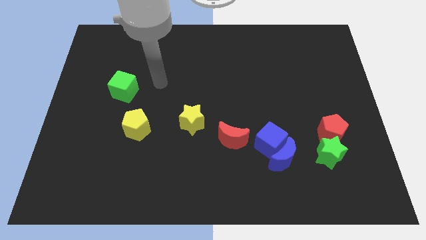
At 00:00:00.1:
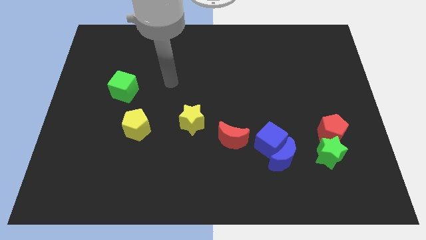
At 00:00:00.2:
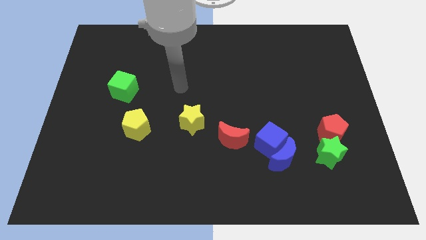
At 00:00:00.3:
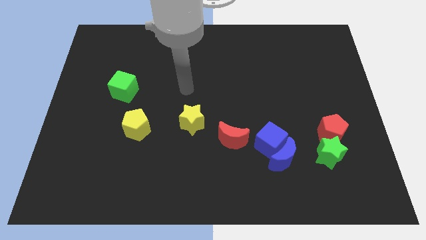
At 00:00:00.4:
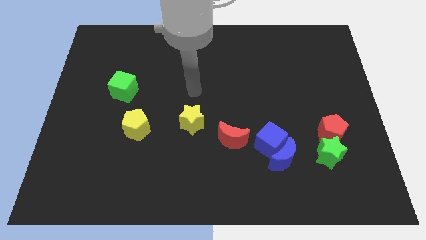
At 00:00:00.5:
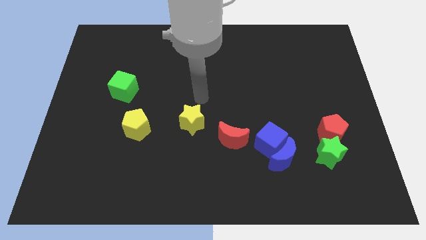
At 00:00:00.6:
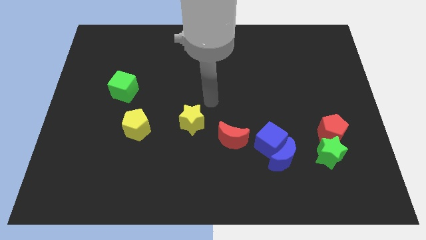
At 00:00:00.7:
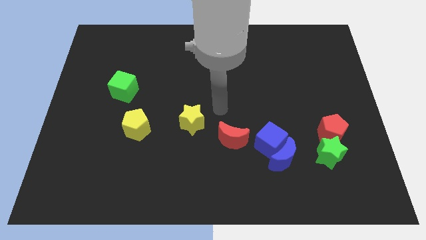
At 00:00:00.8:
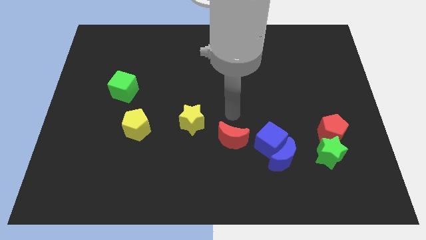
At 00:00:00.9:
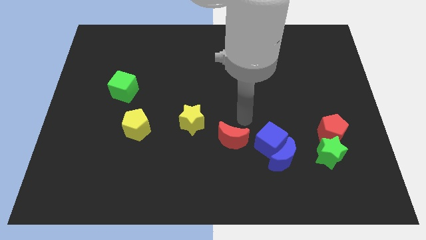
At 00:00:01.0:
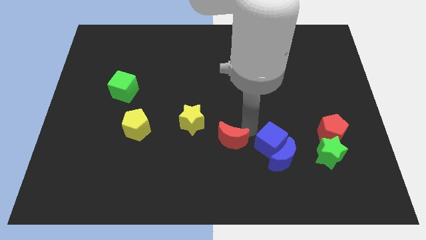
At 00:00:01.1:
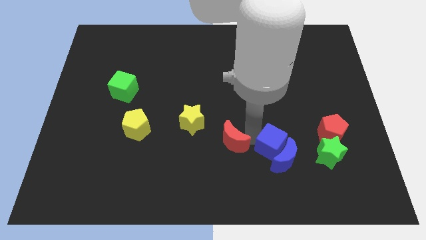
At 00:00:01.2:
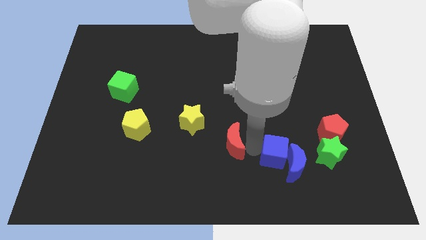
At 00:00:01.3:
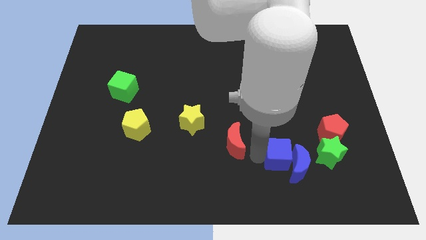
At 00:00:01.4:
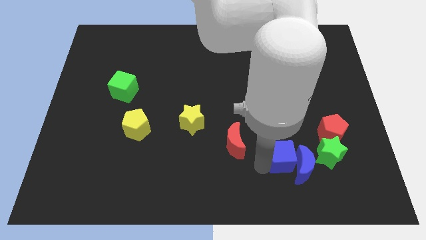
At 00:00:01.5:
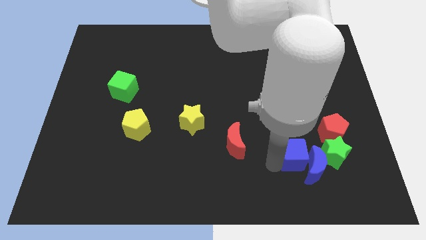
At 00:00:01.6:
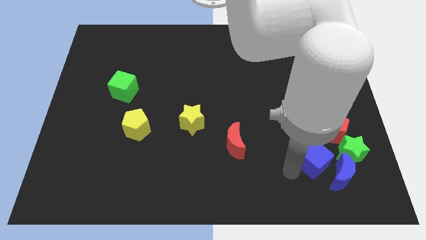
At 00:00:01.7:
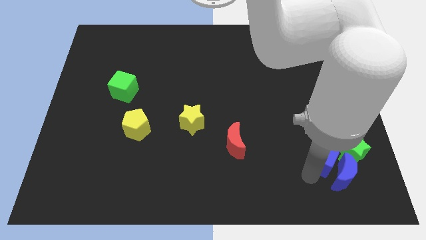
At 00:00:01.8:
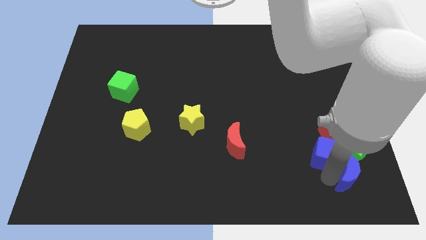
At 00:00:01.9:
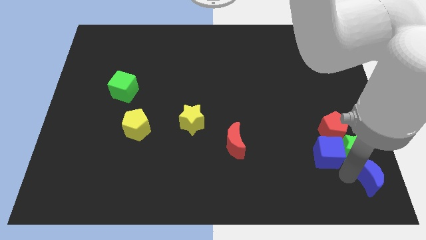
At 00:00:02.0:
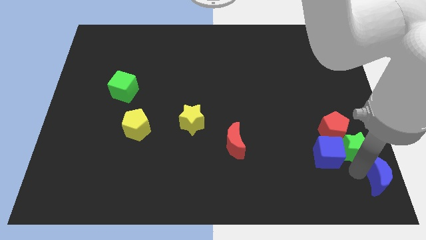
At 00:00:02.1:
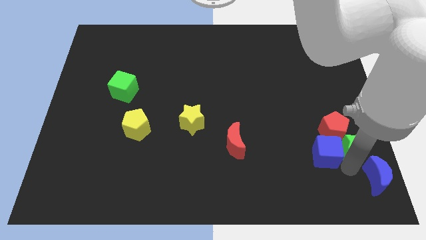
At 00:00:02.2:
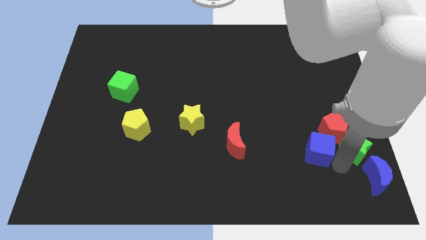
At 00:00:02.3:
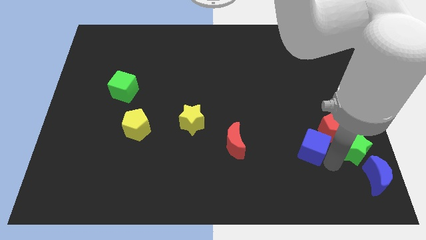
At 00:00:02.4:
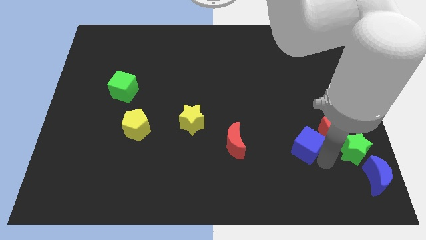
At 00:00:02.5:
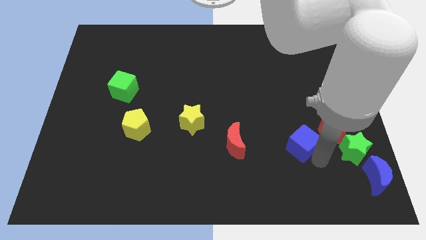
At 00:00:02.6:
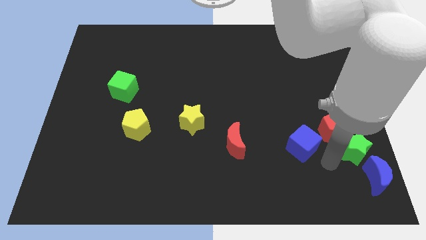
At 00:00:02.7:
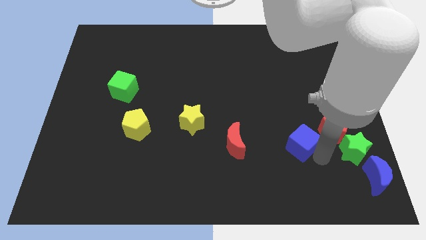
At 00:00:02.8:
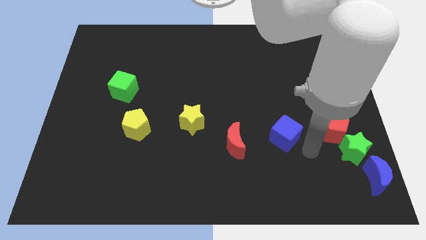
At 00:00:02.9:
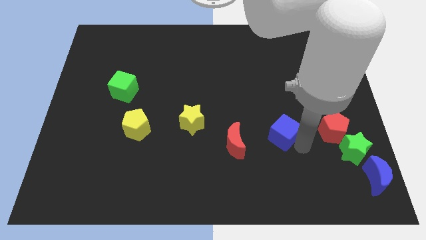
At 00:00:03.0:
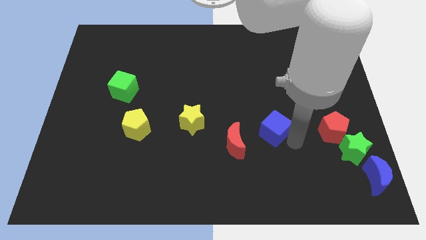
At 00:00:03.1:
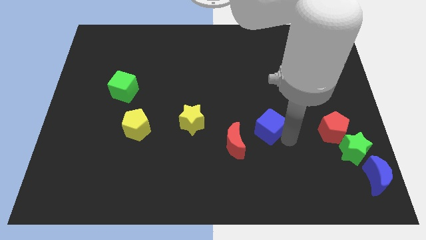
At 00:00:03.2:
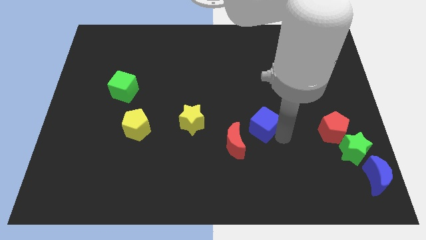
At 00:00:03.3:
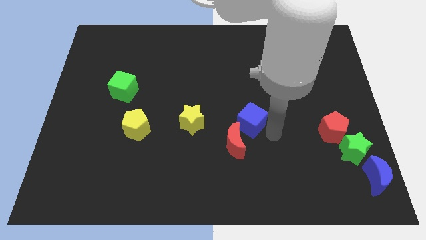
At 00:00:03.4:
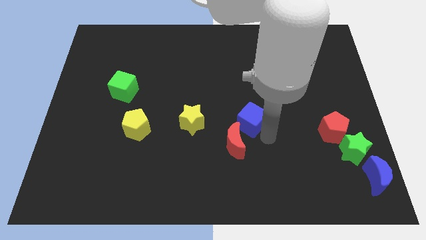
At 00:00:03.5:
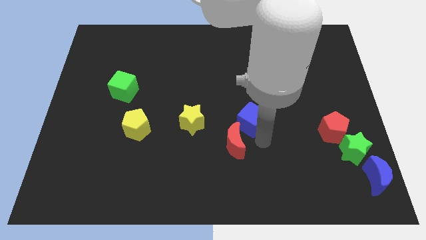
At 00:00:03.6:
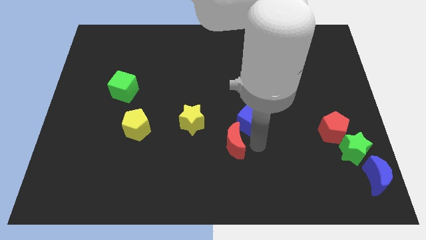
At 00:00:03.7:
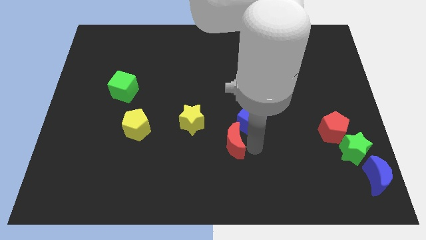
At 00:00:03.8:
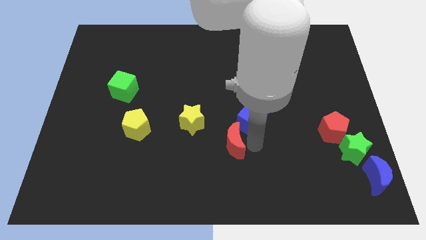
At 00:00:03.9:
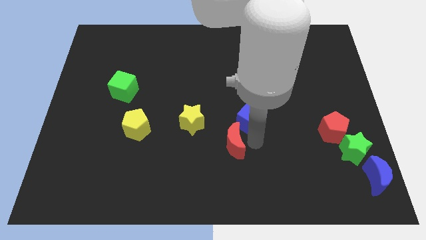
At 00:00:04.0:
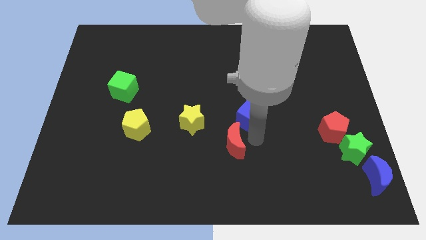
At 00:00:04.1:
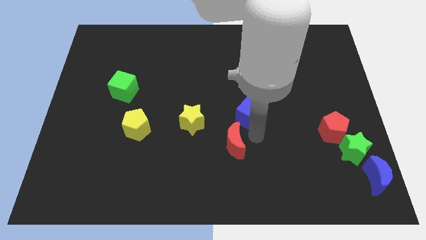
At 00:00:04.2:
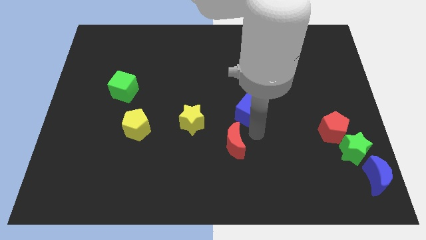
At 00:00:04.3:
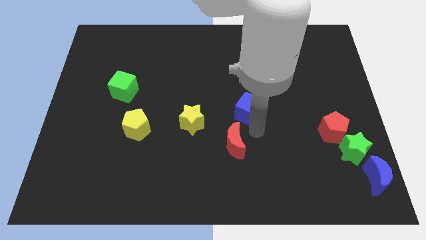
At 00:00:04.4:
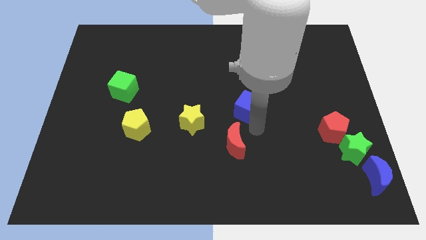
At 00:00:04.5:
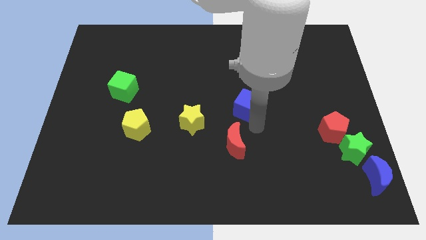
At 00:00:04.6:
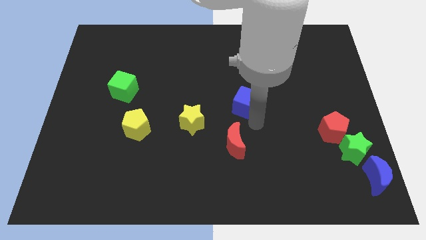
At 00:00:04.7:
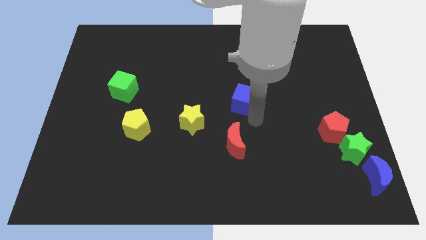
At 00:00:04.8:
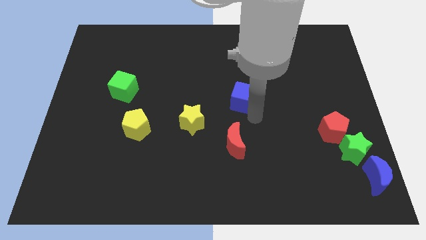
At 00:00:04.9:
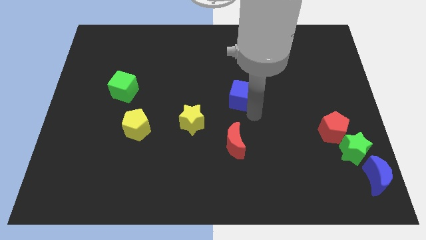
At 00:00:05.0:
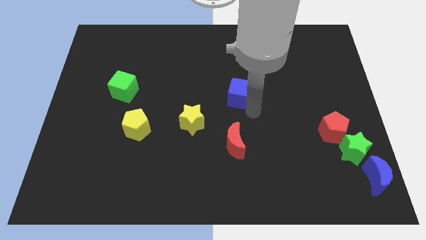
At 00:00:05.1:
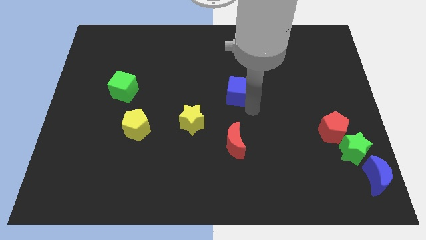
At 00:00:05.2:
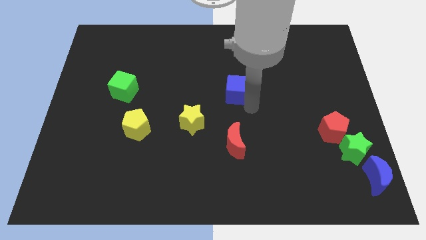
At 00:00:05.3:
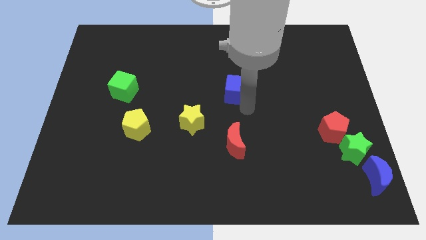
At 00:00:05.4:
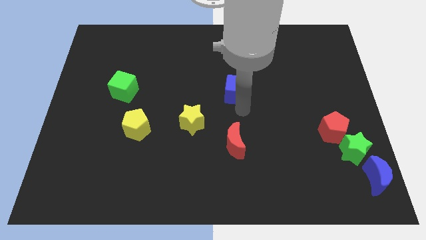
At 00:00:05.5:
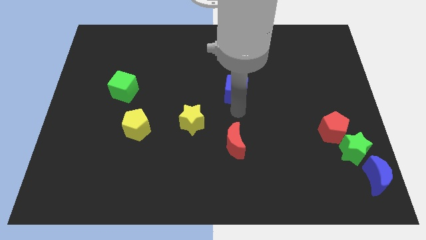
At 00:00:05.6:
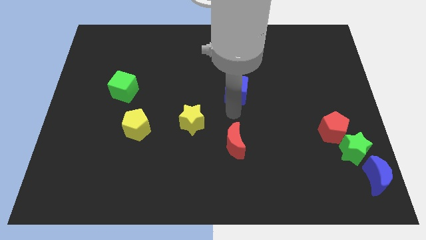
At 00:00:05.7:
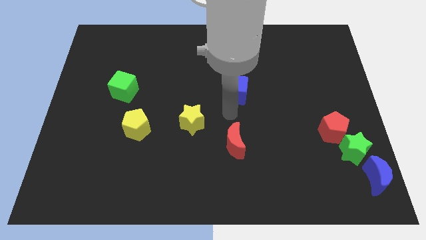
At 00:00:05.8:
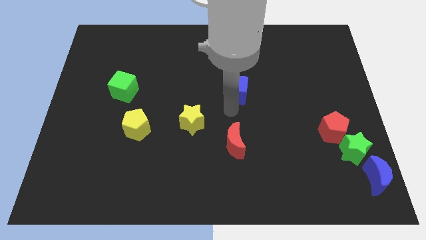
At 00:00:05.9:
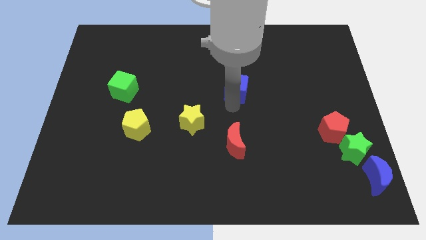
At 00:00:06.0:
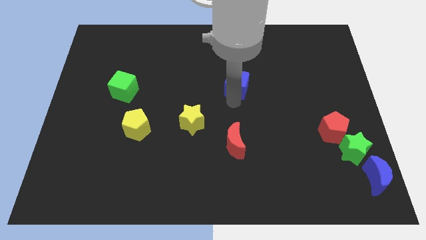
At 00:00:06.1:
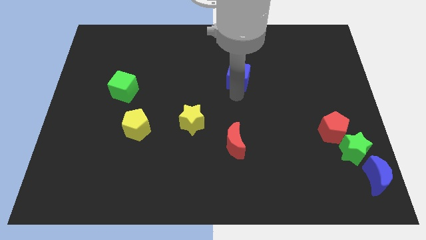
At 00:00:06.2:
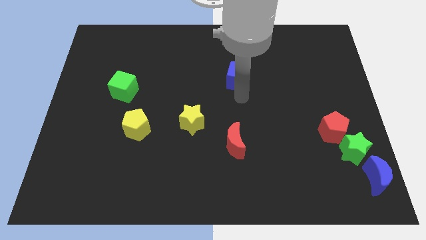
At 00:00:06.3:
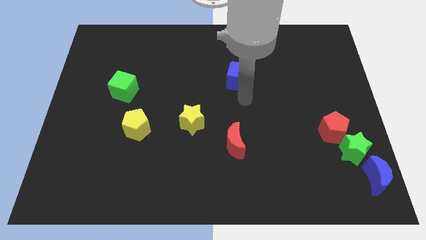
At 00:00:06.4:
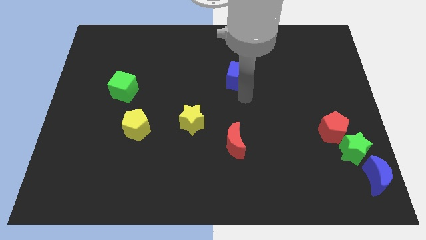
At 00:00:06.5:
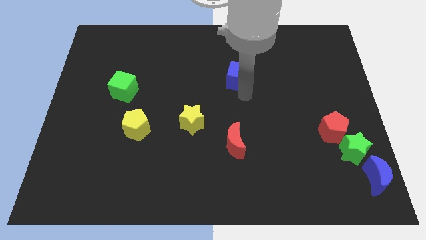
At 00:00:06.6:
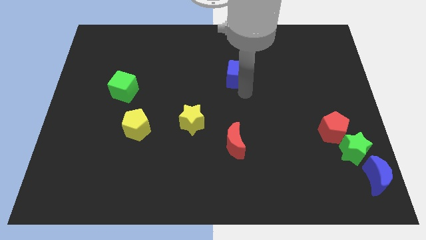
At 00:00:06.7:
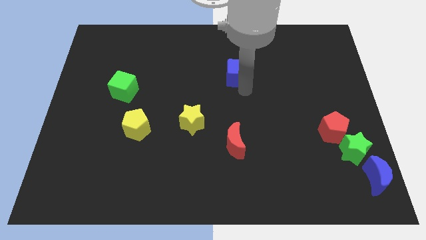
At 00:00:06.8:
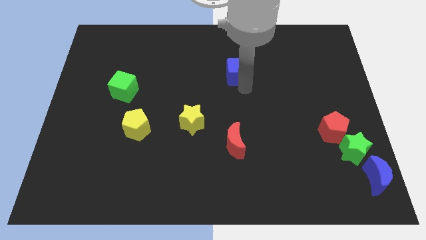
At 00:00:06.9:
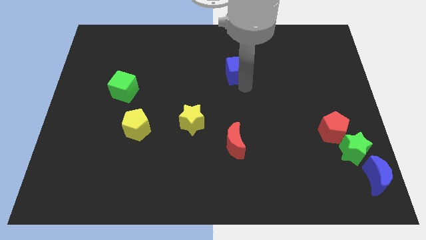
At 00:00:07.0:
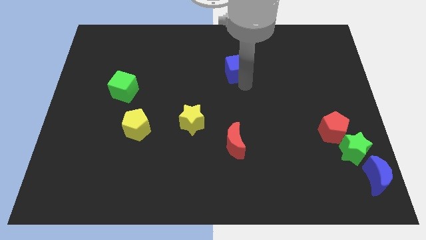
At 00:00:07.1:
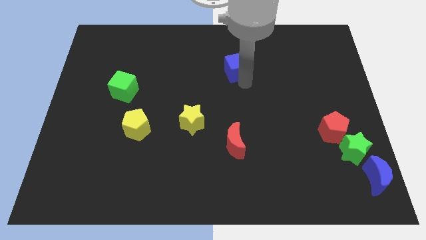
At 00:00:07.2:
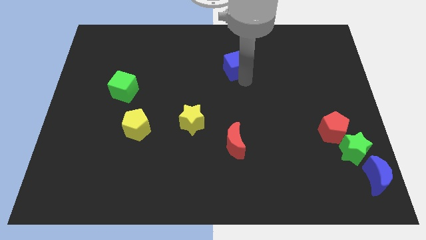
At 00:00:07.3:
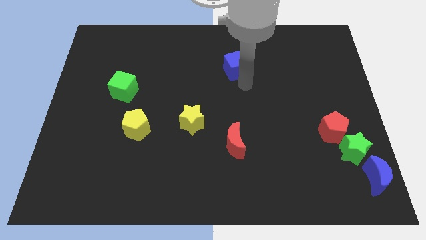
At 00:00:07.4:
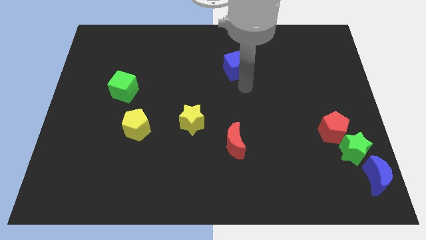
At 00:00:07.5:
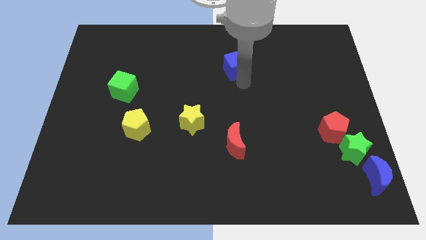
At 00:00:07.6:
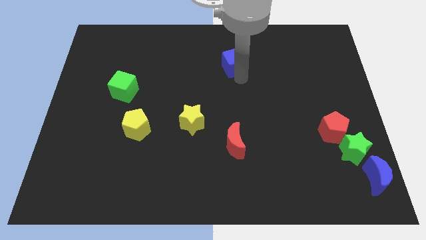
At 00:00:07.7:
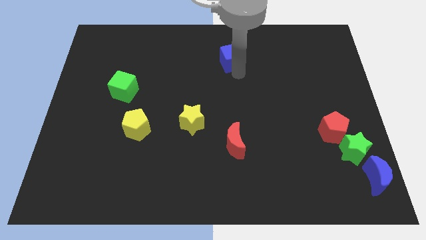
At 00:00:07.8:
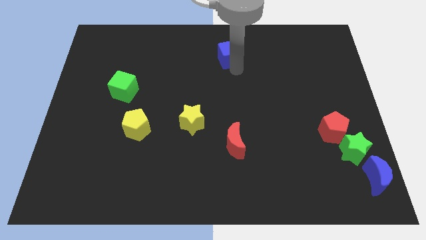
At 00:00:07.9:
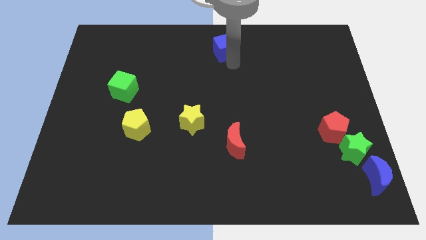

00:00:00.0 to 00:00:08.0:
put the blue cube to the top side
